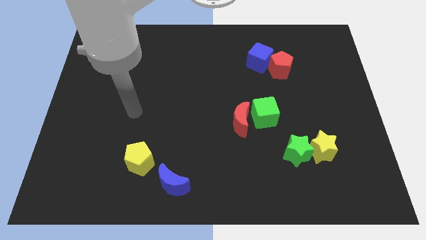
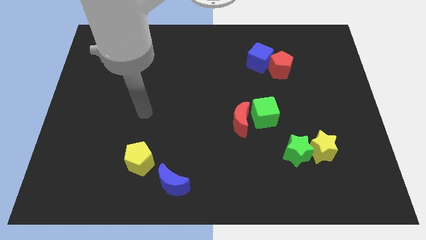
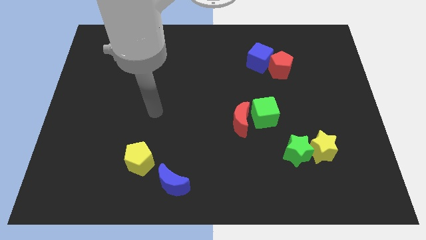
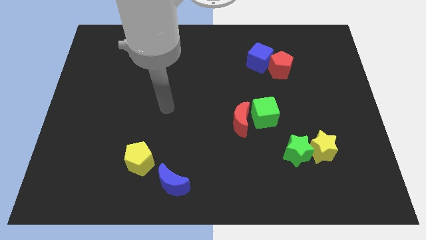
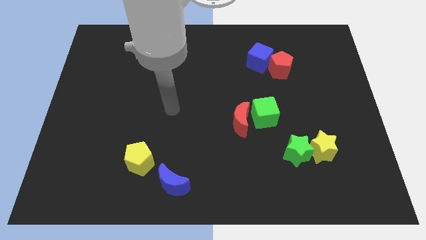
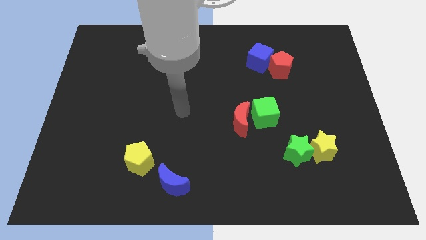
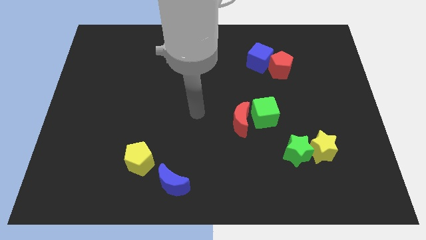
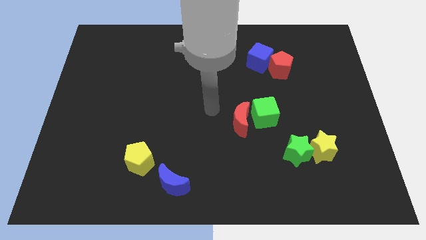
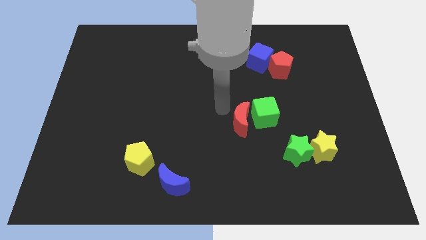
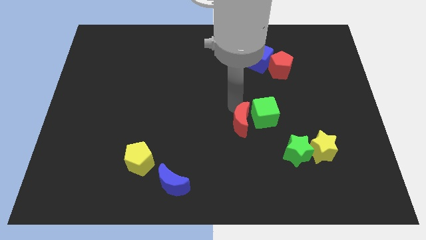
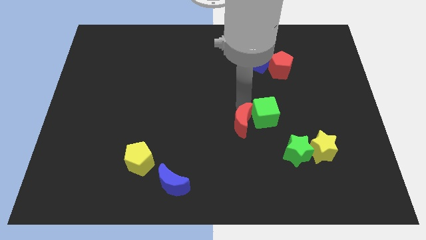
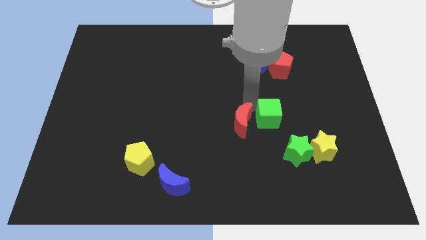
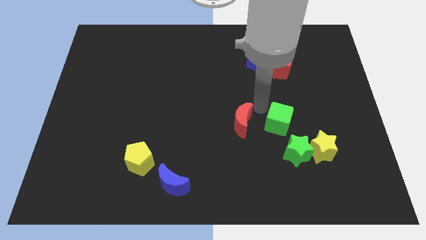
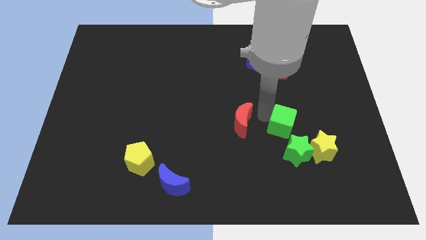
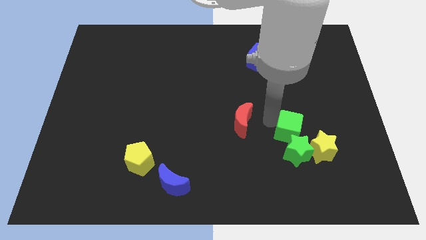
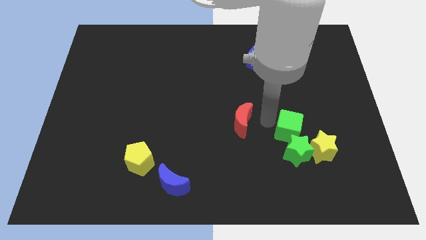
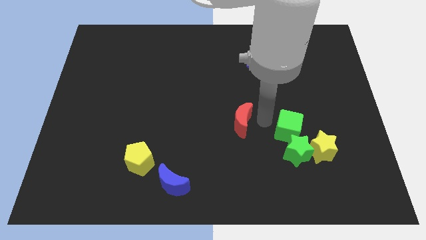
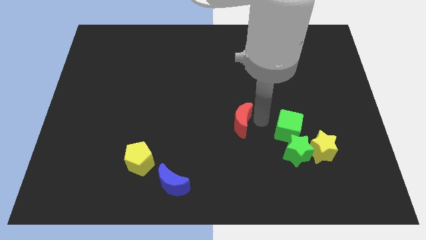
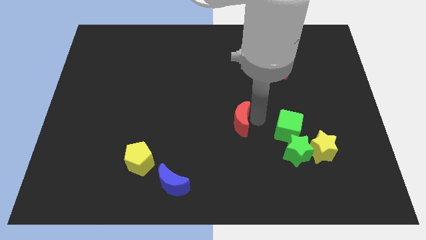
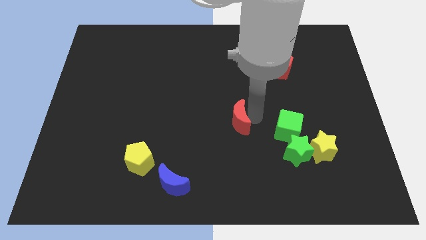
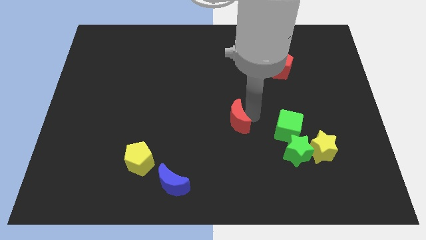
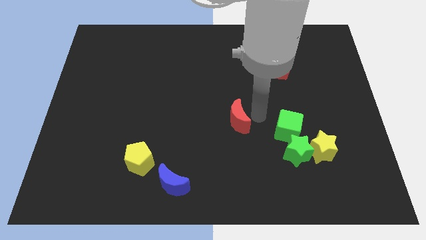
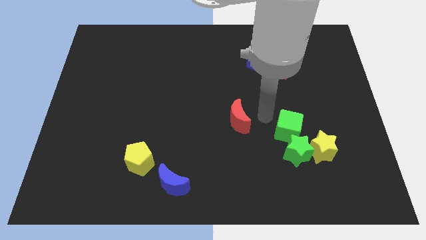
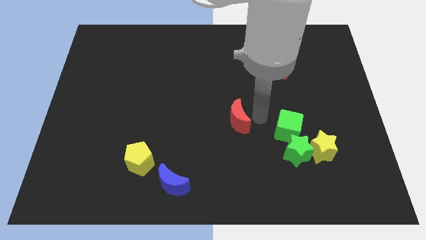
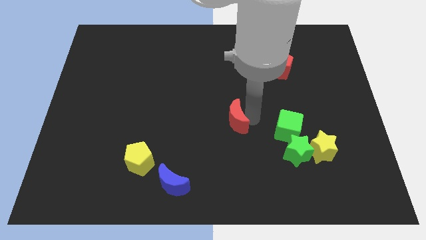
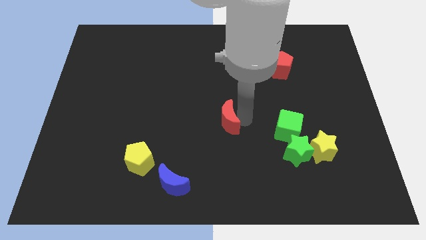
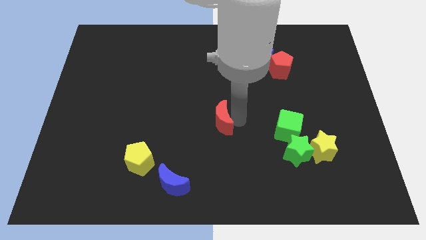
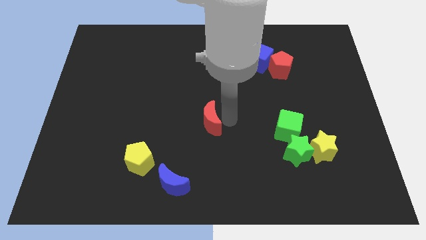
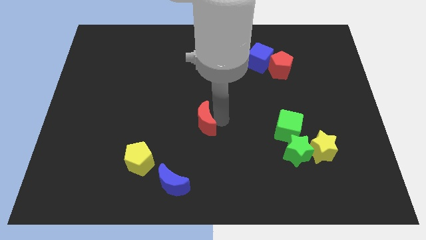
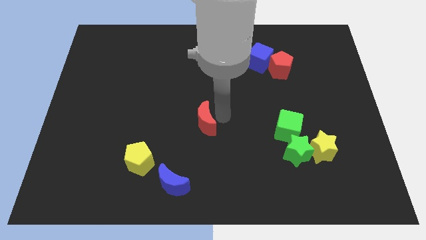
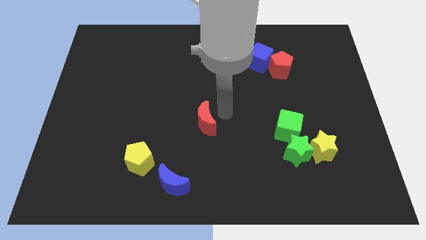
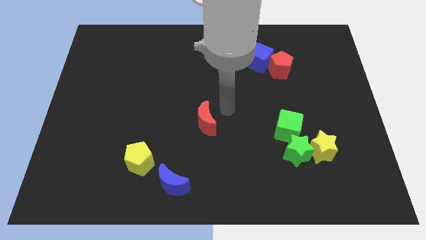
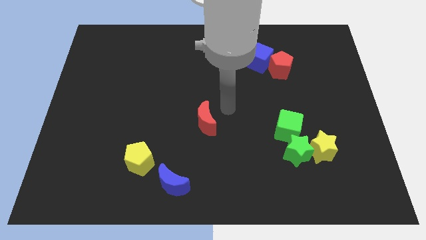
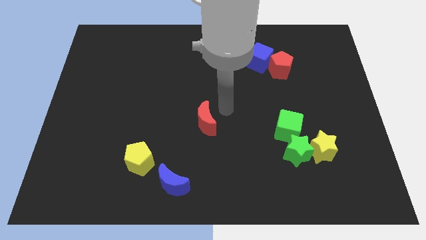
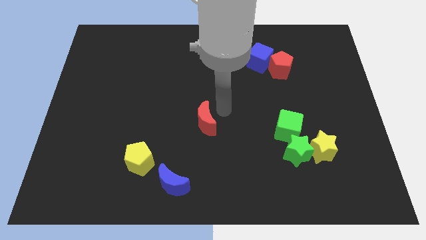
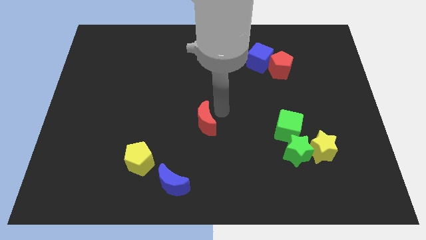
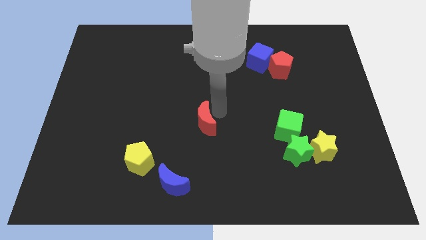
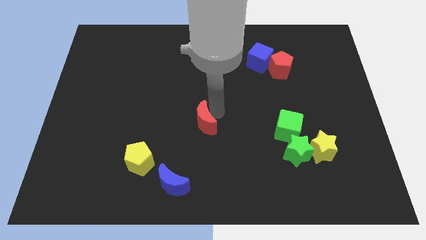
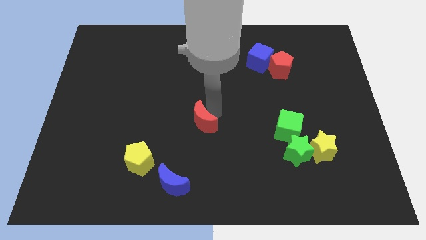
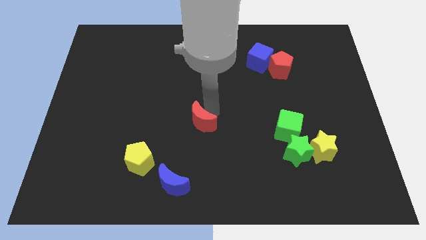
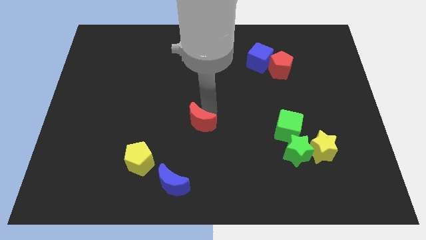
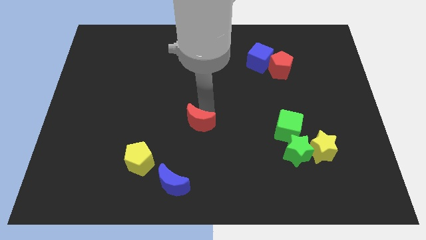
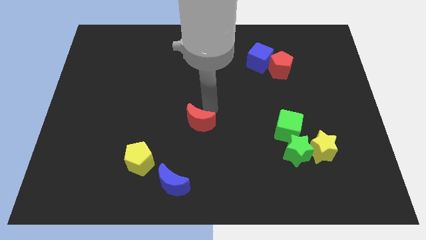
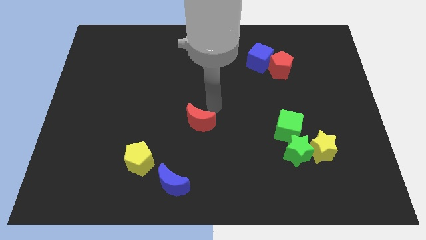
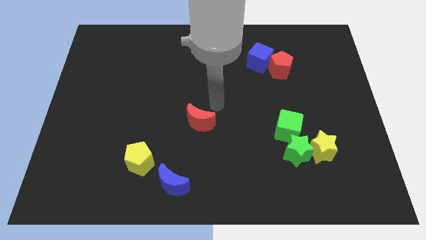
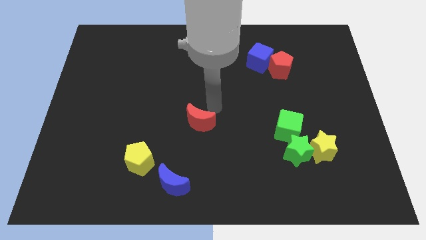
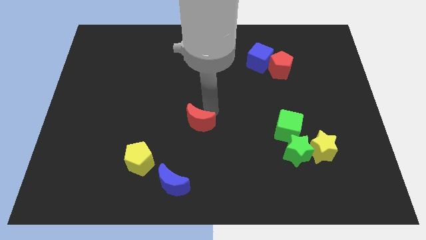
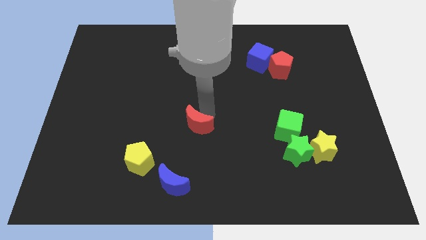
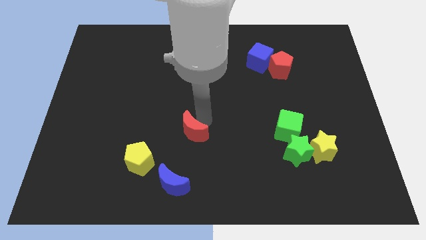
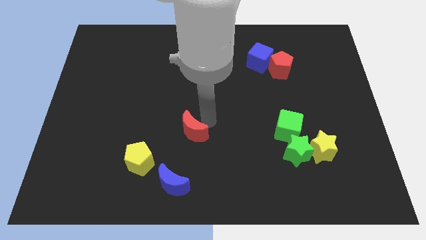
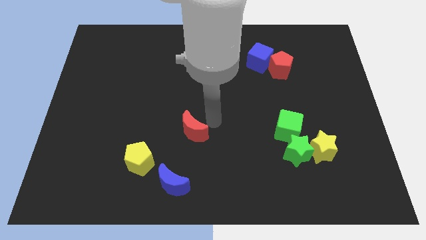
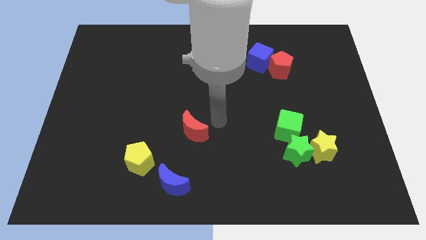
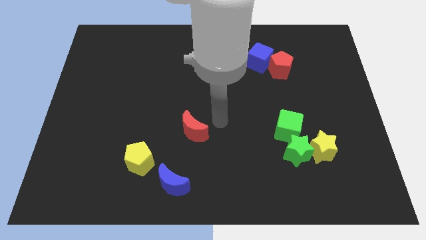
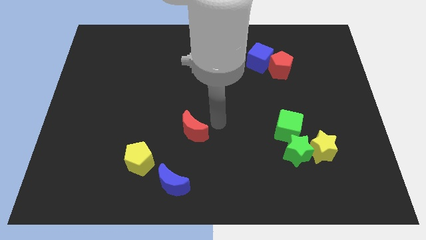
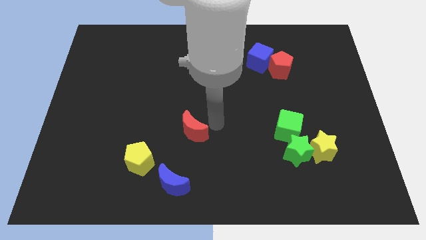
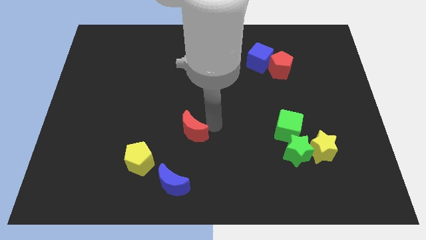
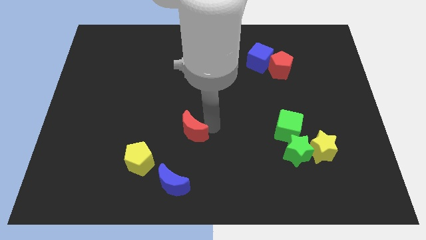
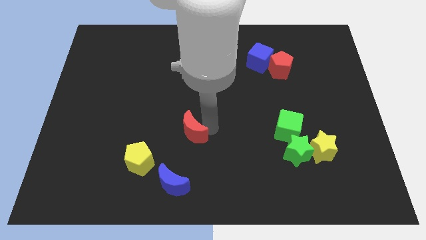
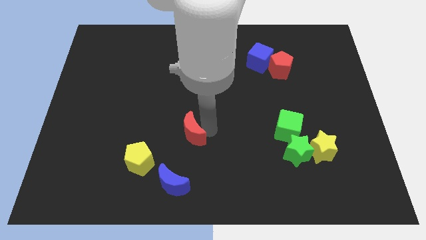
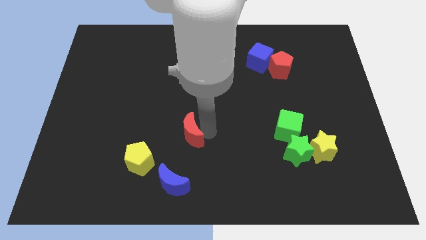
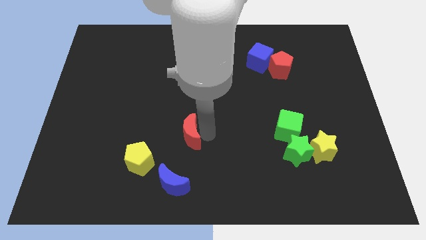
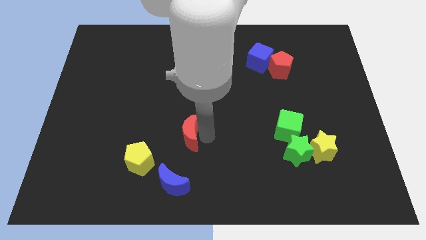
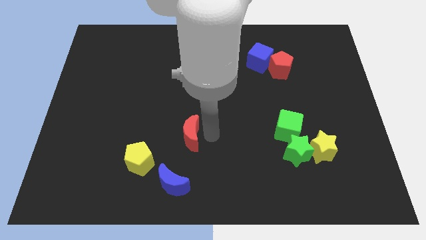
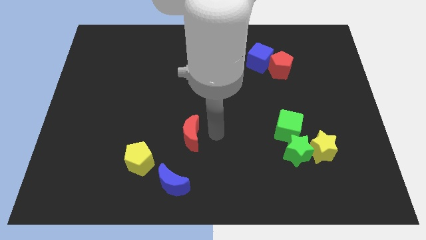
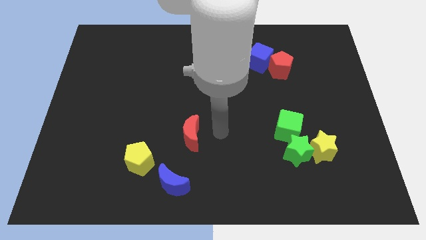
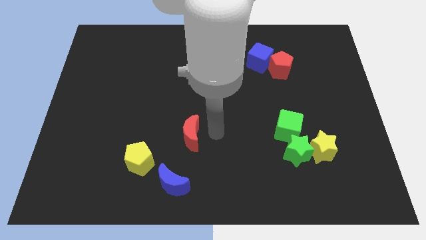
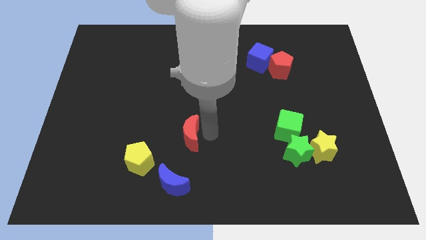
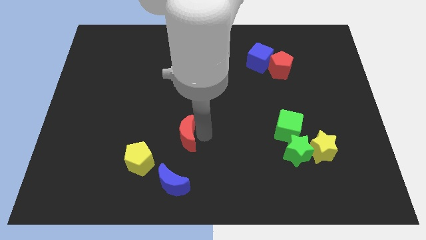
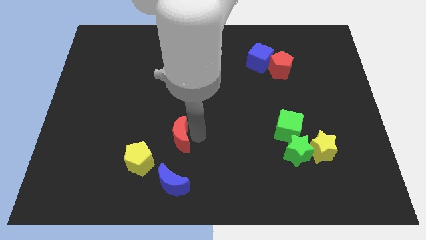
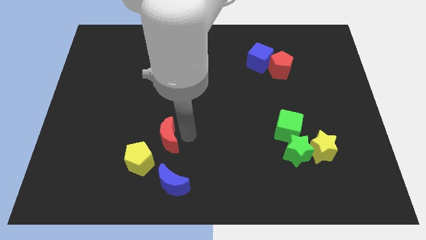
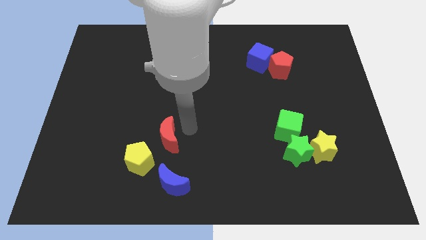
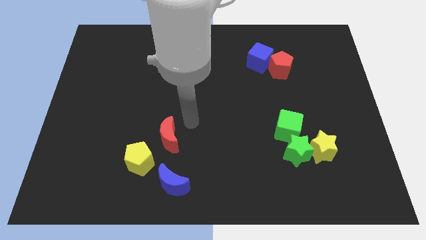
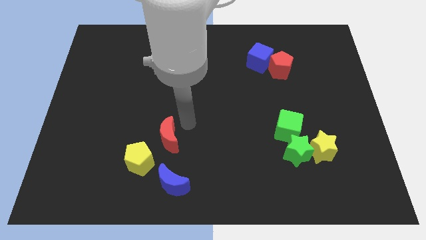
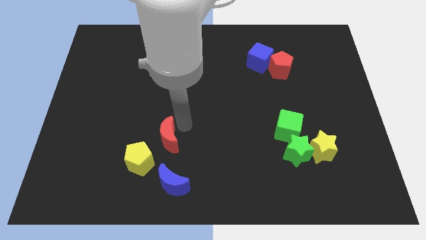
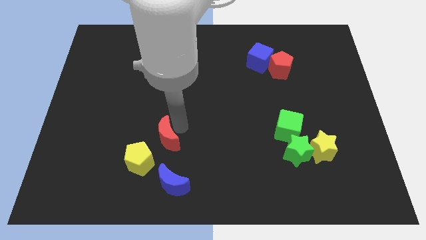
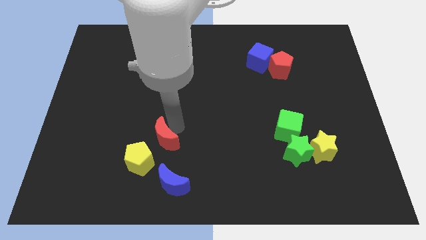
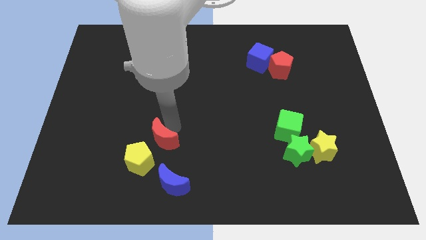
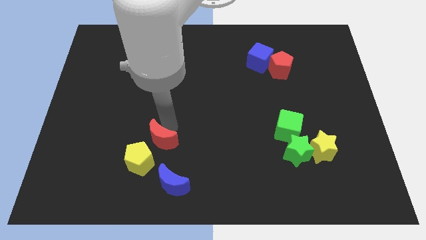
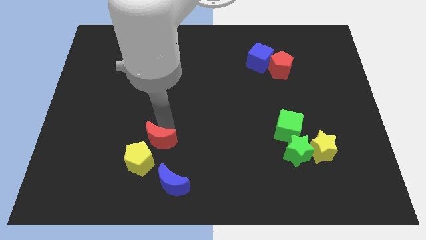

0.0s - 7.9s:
push the red moon towards the yellow pentagon

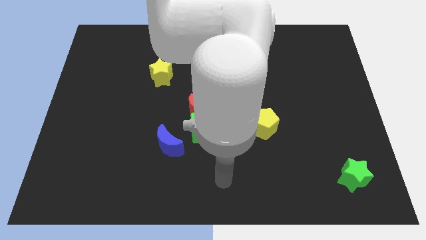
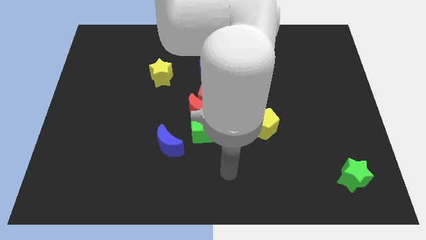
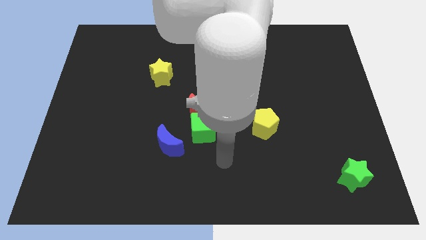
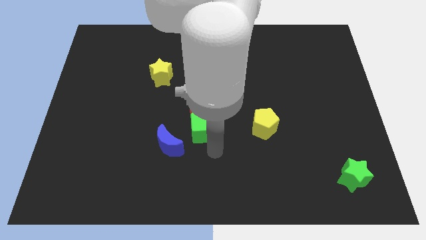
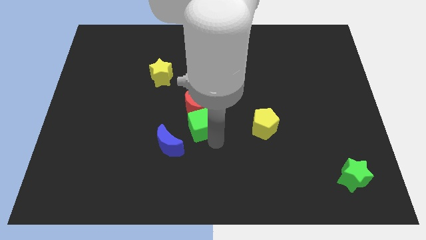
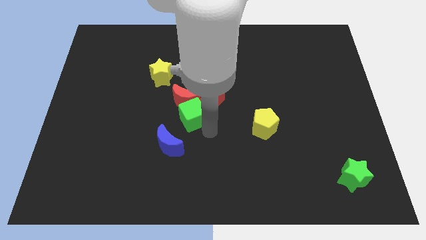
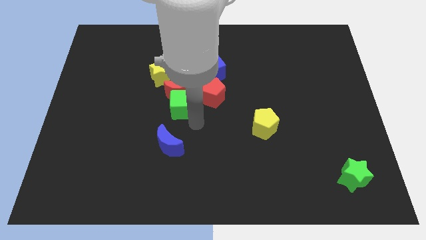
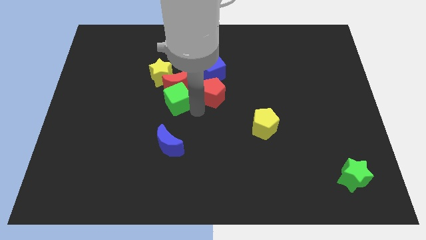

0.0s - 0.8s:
move the red moon to the yellow star
